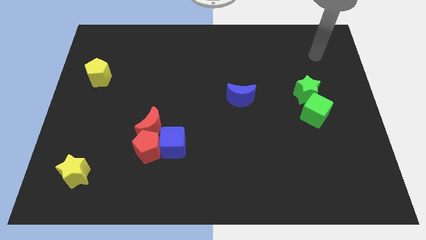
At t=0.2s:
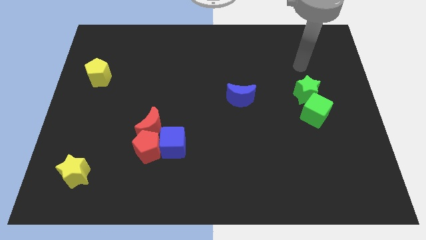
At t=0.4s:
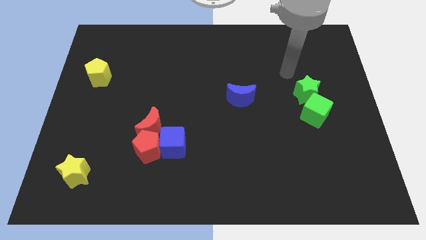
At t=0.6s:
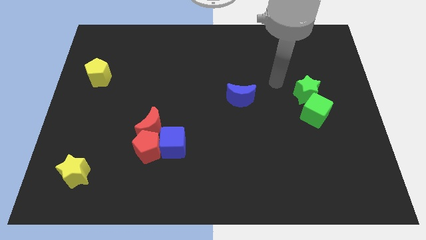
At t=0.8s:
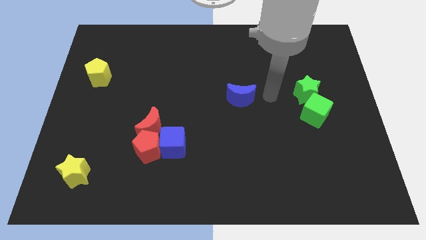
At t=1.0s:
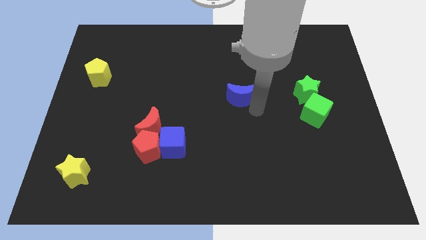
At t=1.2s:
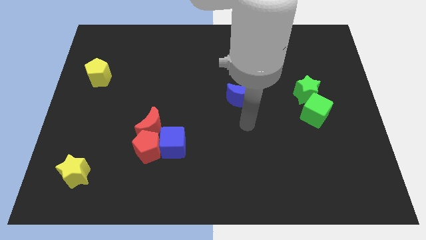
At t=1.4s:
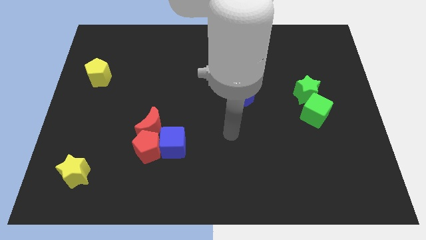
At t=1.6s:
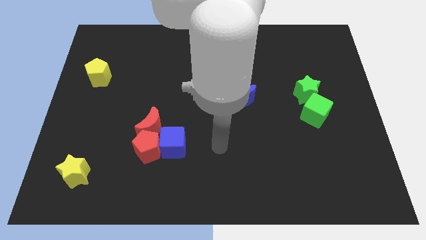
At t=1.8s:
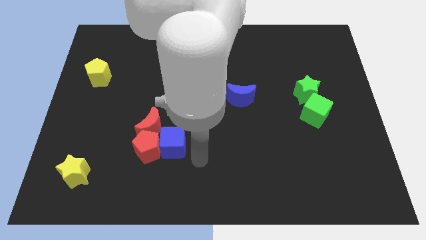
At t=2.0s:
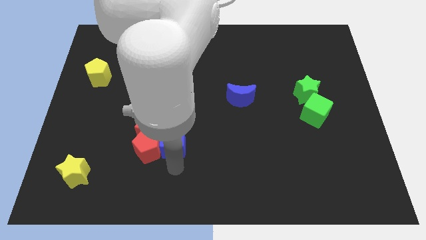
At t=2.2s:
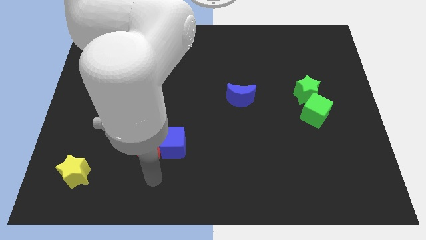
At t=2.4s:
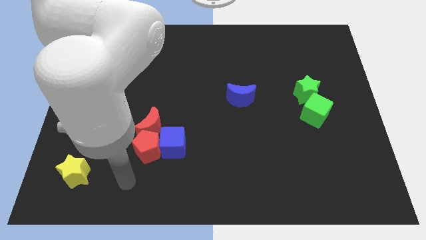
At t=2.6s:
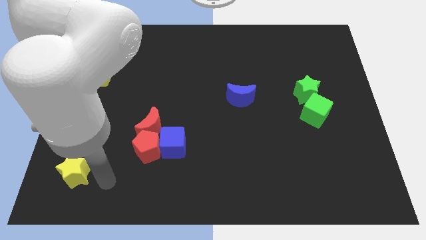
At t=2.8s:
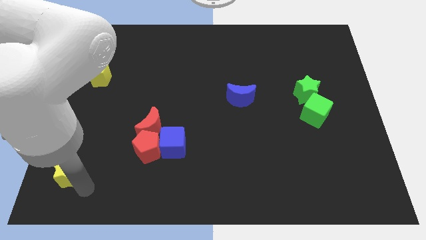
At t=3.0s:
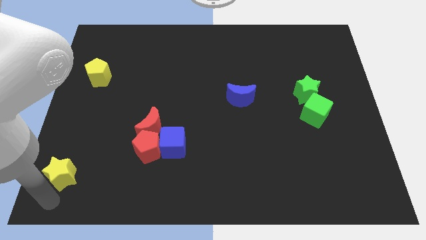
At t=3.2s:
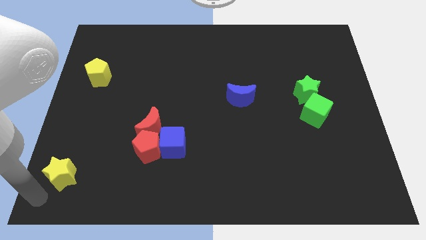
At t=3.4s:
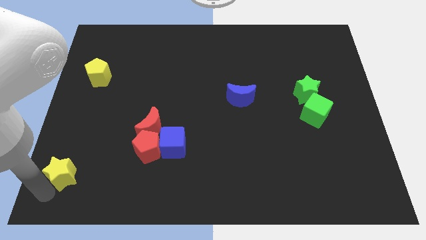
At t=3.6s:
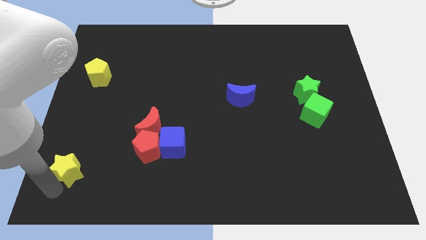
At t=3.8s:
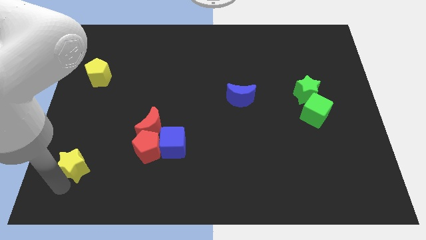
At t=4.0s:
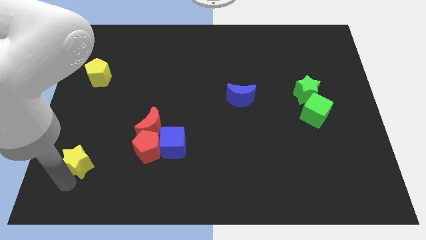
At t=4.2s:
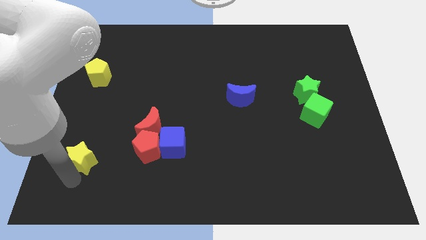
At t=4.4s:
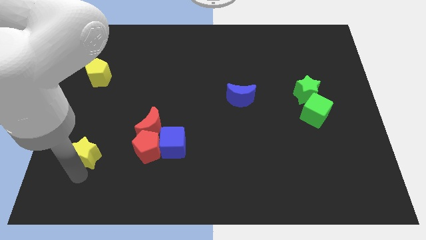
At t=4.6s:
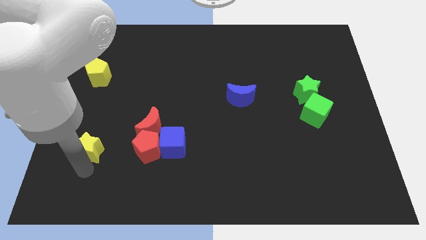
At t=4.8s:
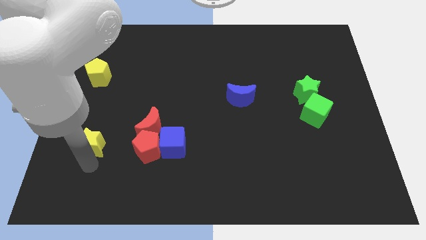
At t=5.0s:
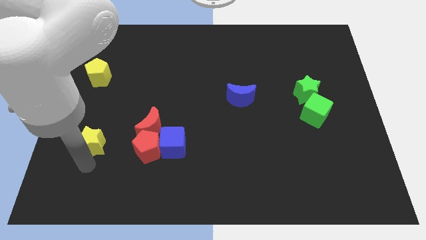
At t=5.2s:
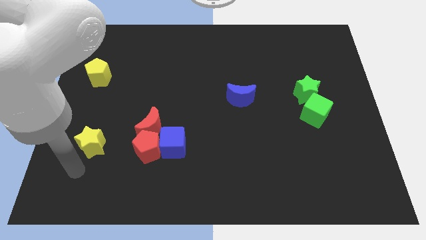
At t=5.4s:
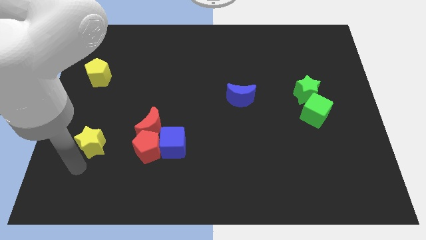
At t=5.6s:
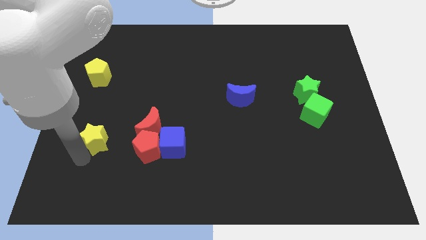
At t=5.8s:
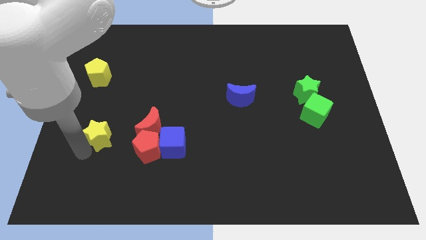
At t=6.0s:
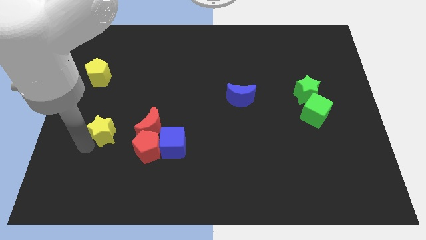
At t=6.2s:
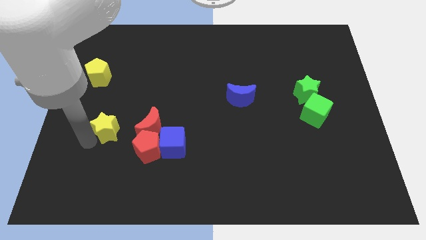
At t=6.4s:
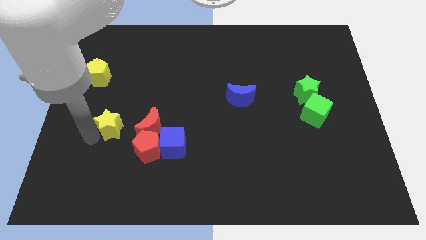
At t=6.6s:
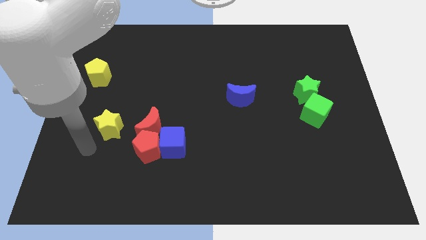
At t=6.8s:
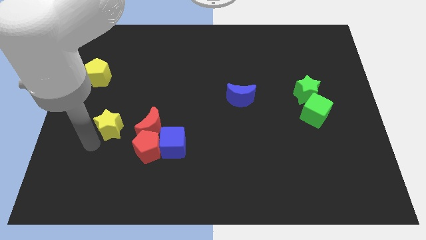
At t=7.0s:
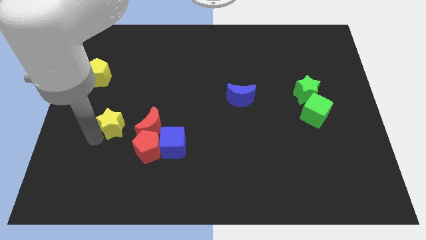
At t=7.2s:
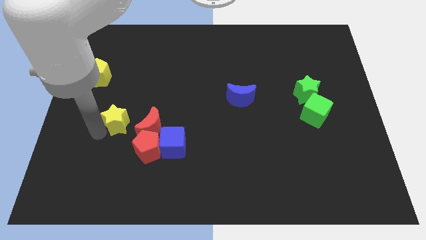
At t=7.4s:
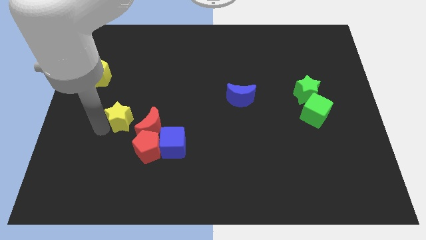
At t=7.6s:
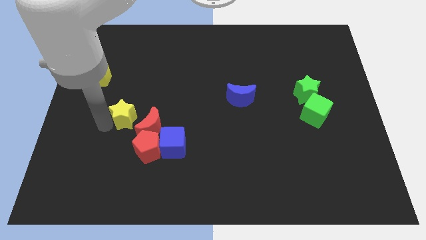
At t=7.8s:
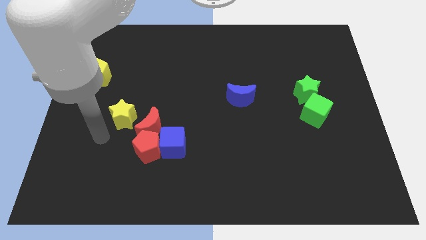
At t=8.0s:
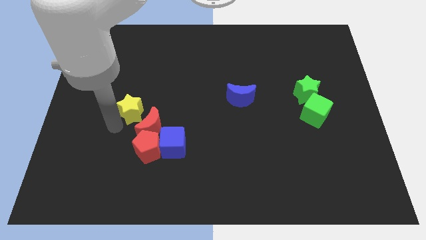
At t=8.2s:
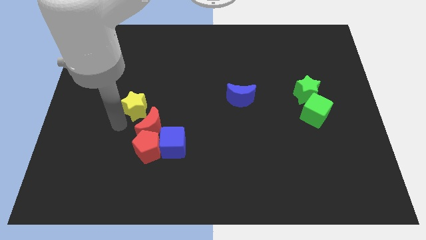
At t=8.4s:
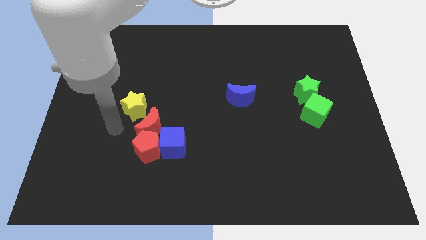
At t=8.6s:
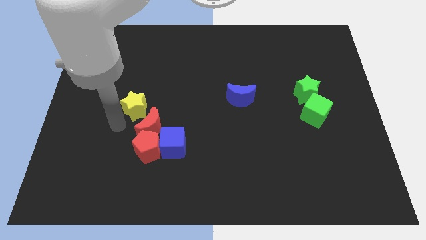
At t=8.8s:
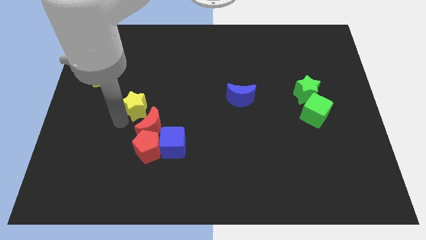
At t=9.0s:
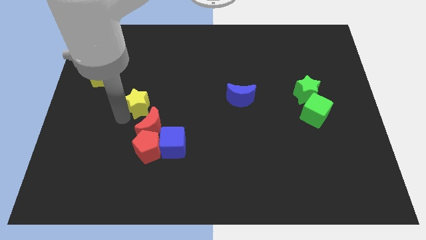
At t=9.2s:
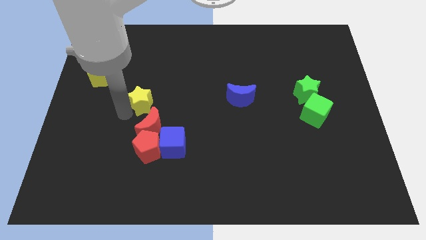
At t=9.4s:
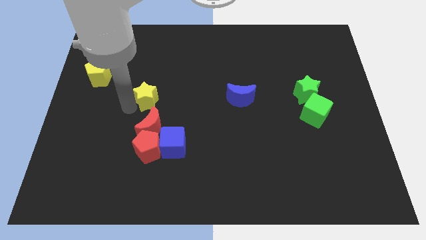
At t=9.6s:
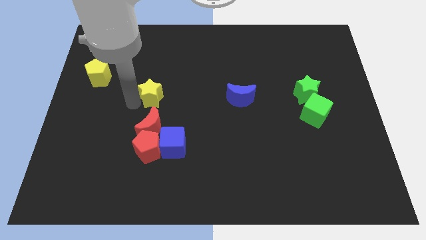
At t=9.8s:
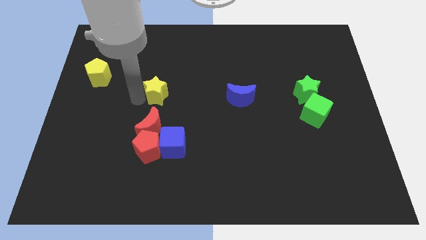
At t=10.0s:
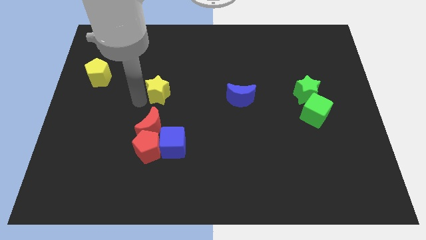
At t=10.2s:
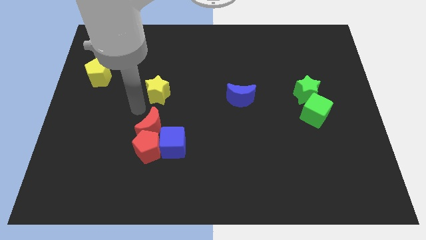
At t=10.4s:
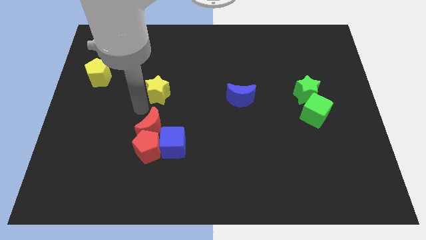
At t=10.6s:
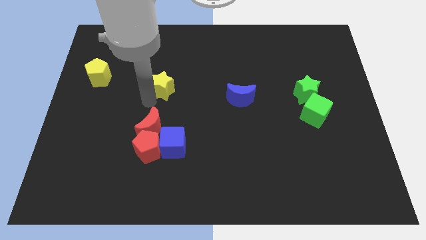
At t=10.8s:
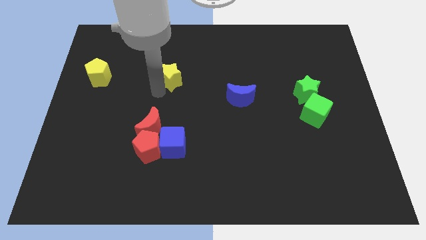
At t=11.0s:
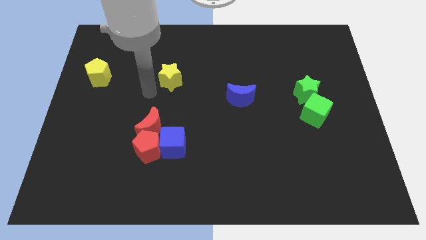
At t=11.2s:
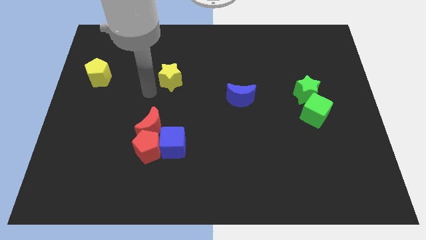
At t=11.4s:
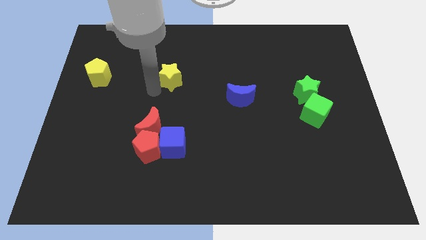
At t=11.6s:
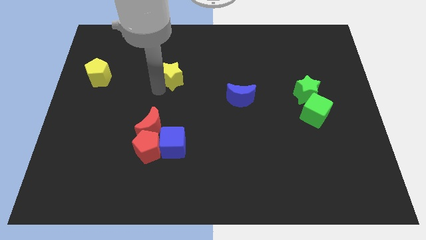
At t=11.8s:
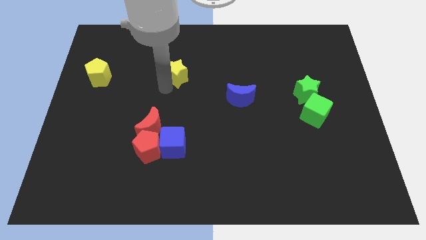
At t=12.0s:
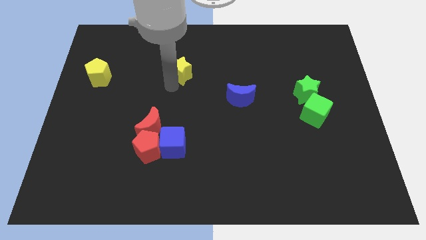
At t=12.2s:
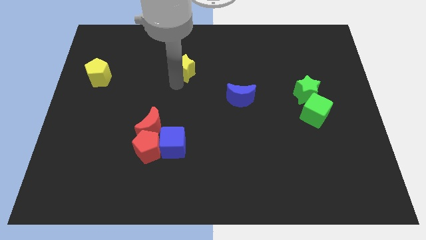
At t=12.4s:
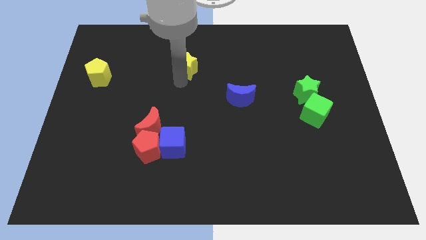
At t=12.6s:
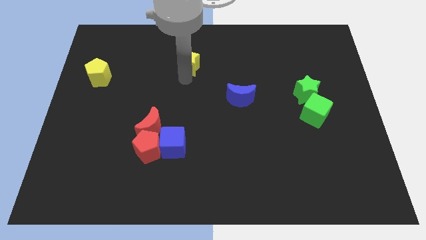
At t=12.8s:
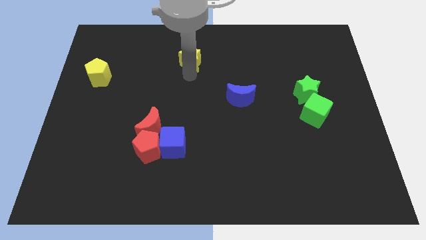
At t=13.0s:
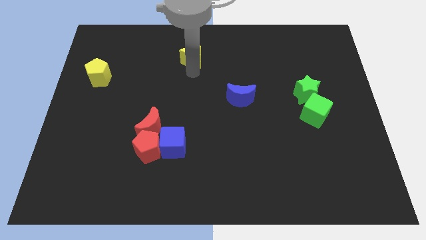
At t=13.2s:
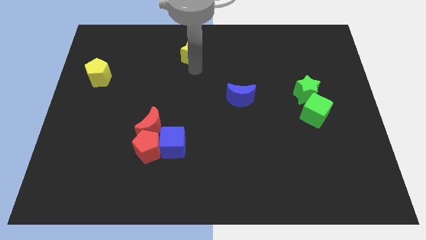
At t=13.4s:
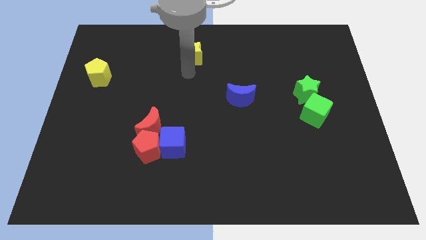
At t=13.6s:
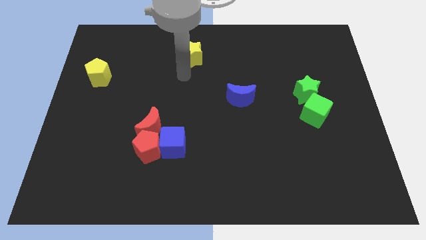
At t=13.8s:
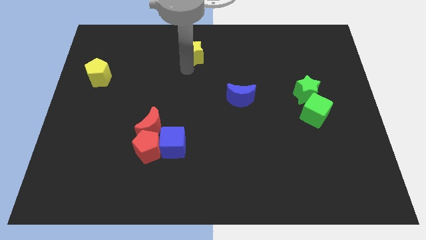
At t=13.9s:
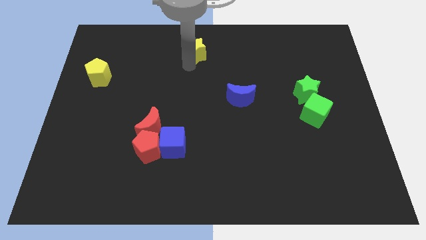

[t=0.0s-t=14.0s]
put the yellow star to the top
